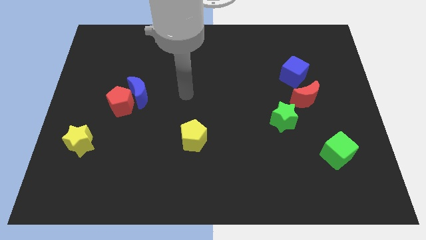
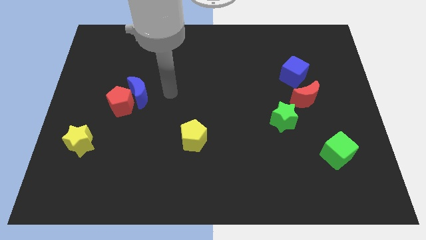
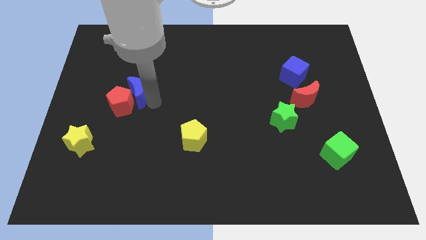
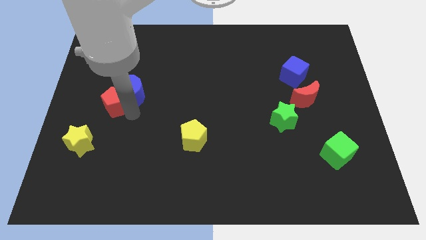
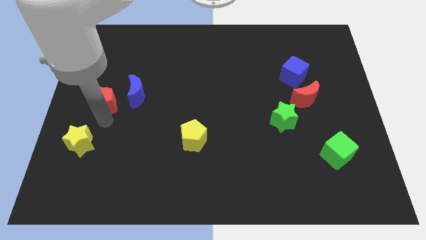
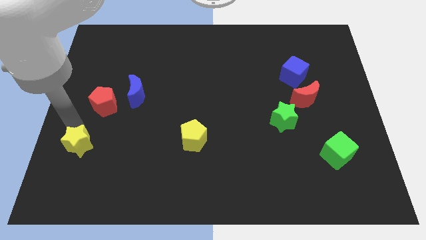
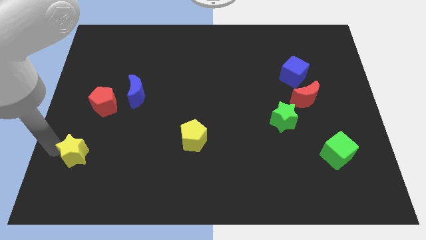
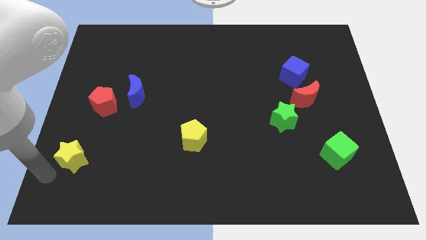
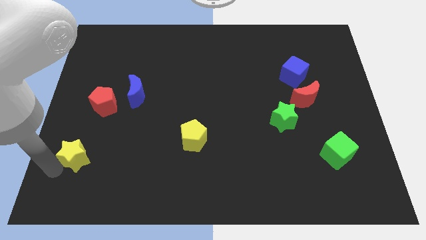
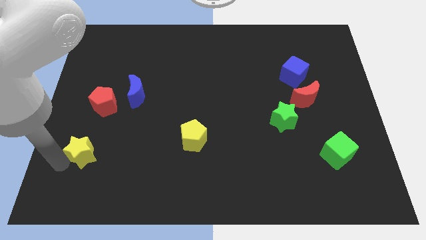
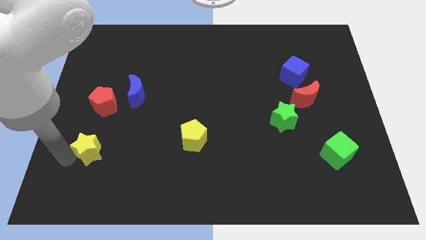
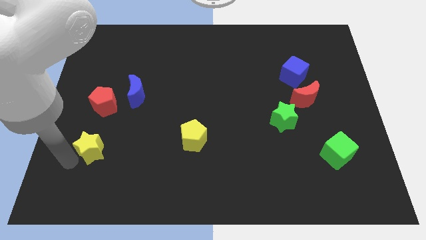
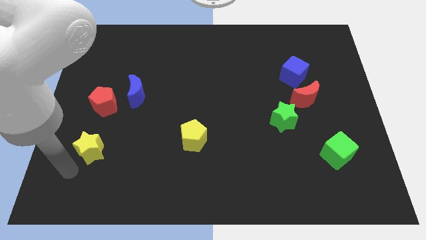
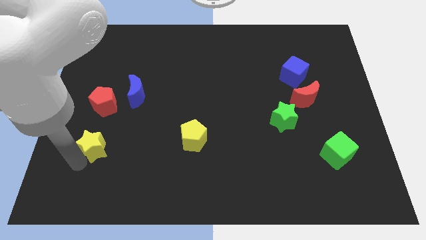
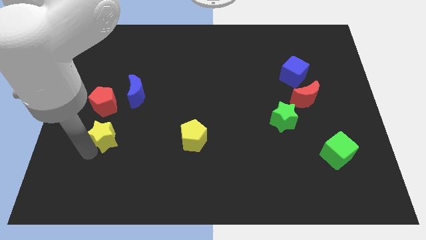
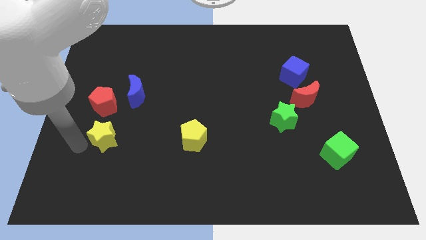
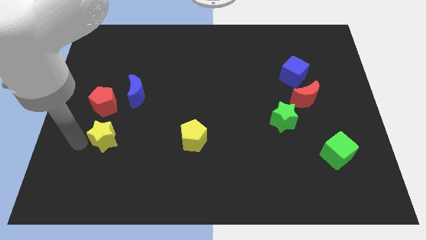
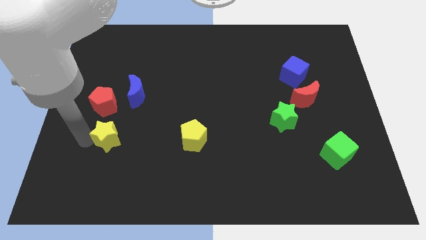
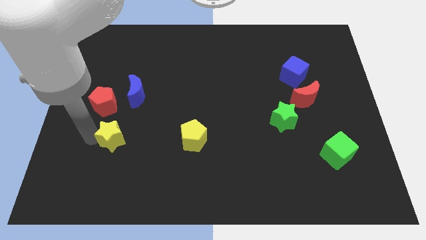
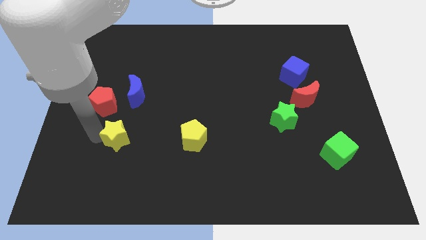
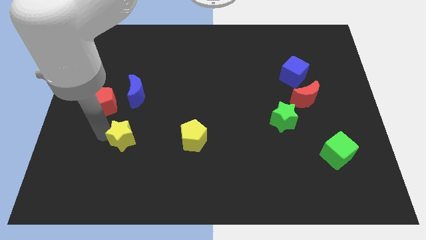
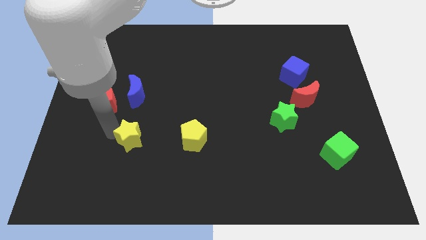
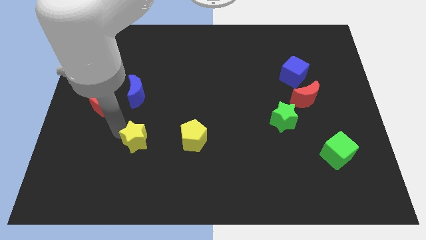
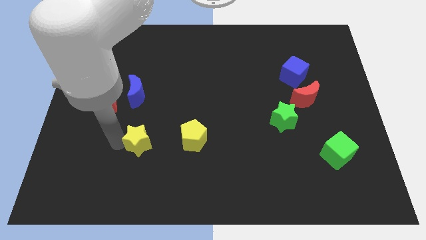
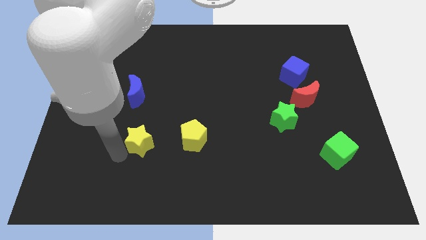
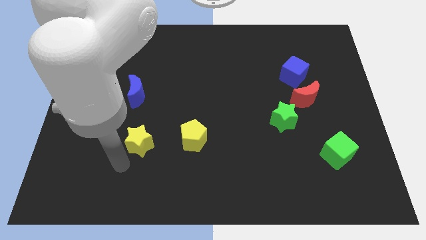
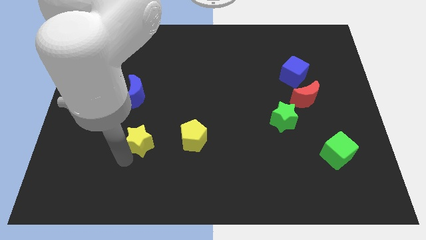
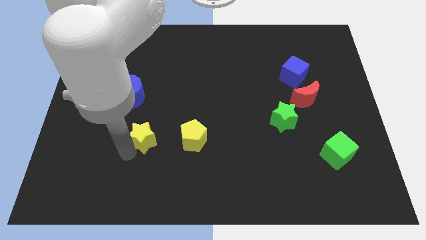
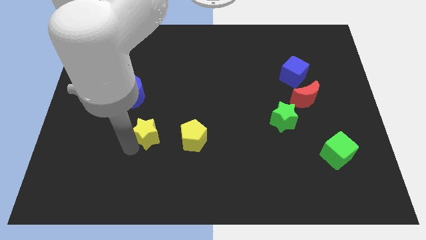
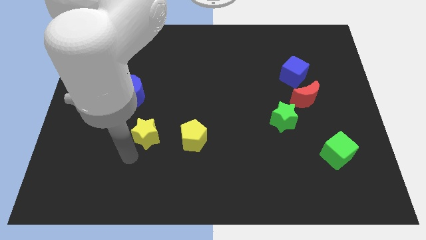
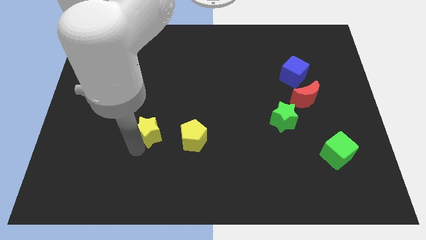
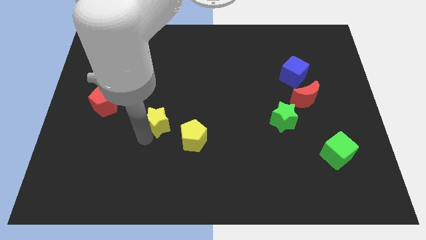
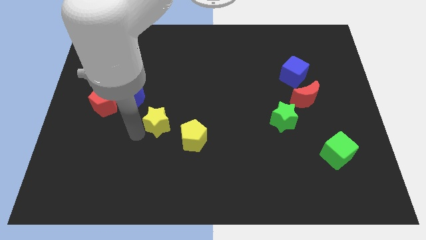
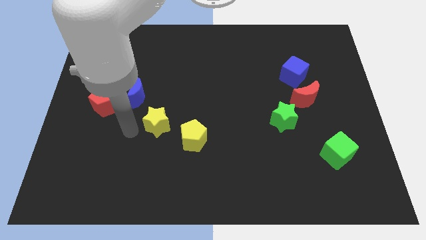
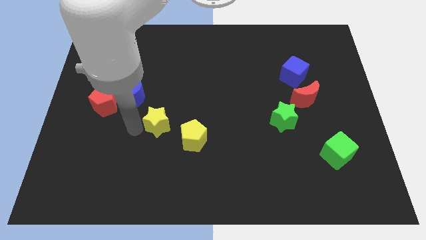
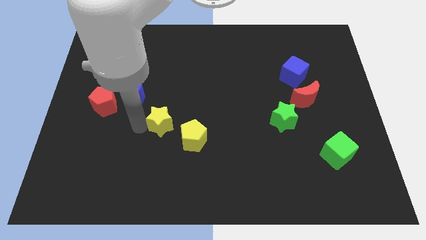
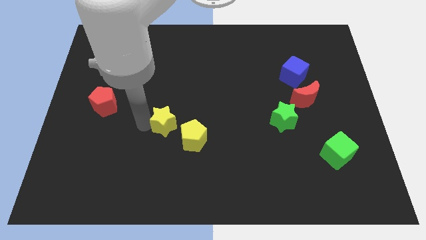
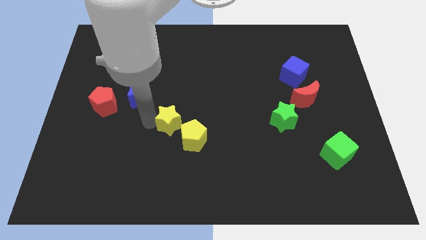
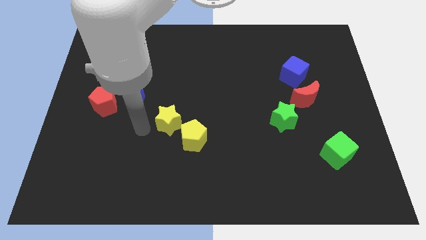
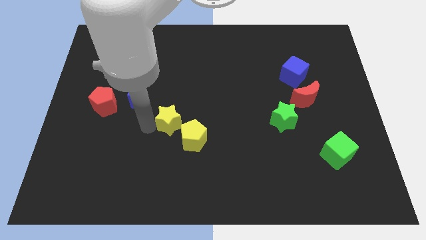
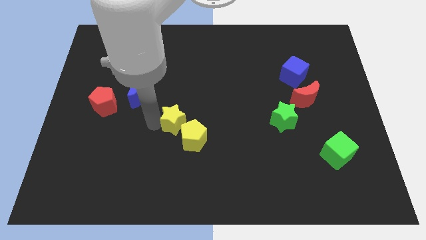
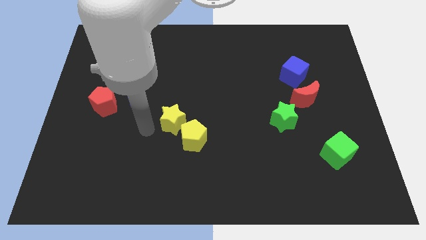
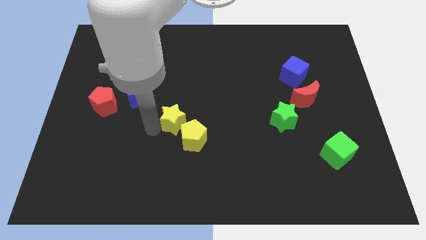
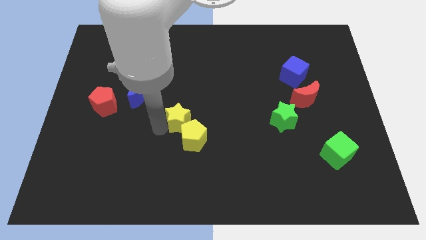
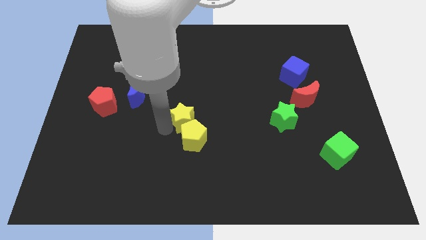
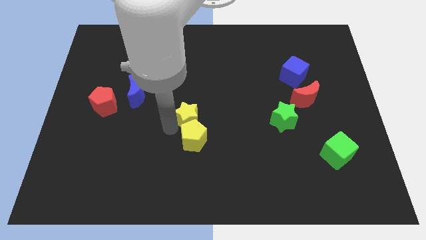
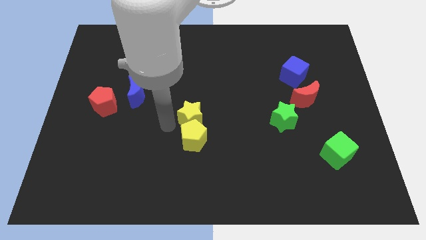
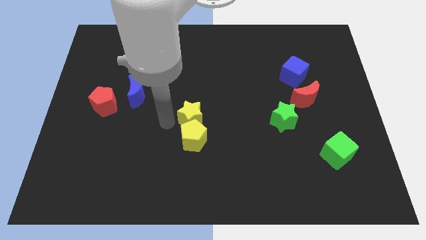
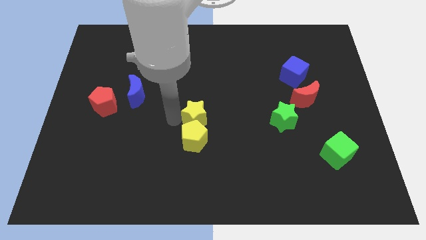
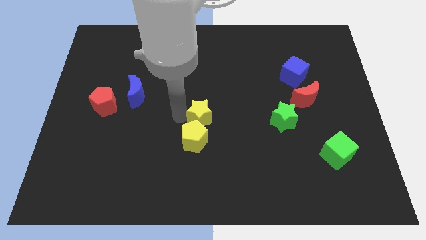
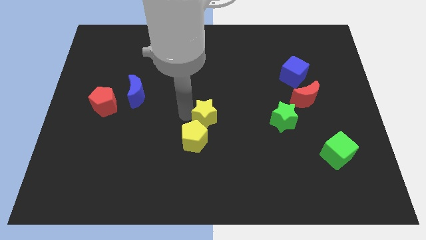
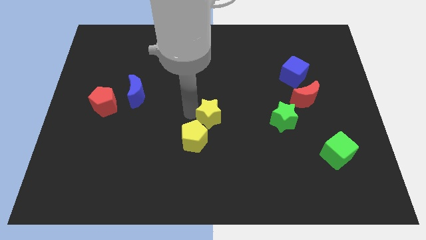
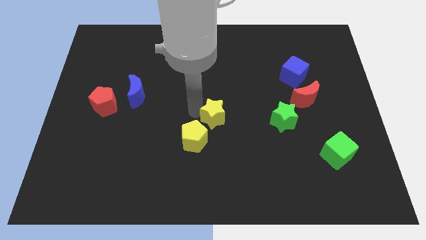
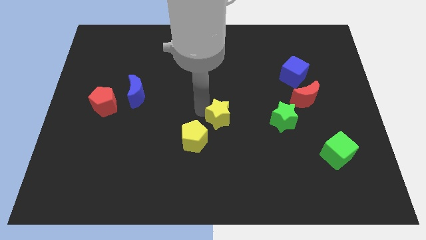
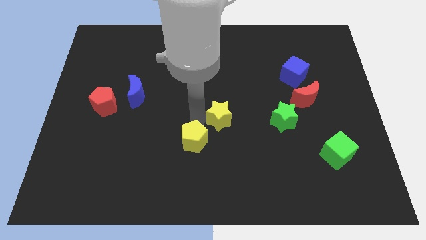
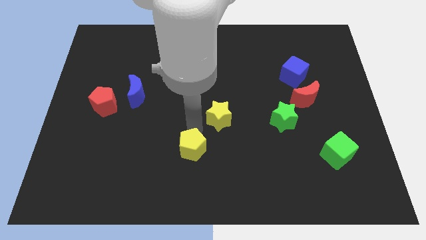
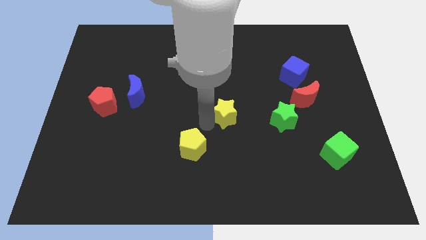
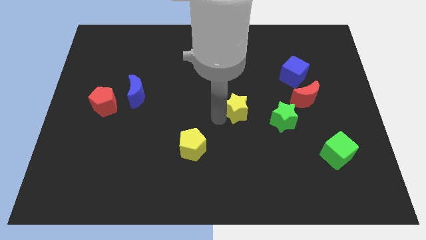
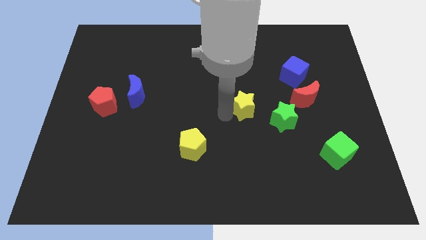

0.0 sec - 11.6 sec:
put the yellow star to the top left side of the green star

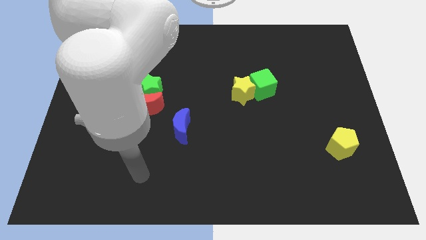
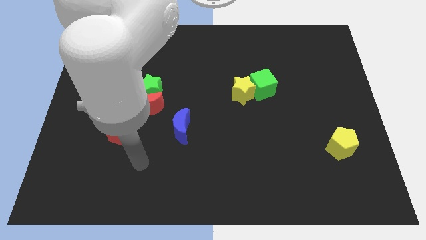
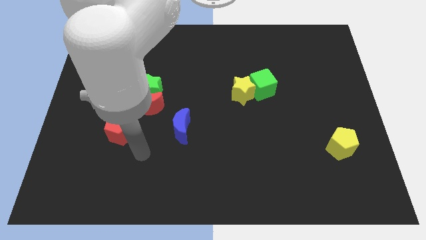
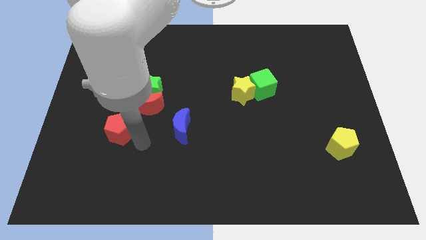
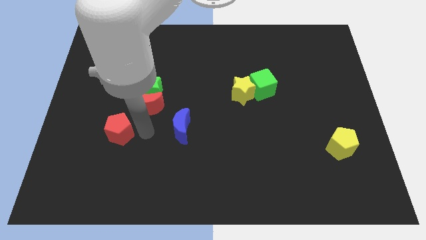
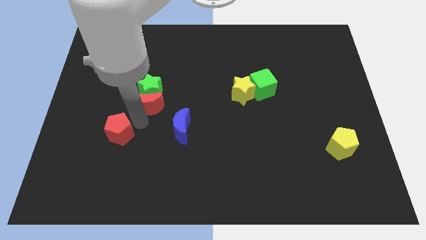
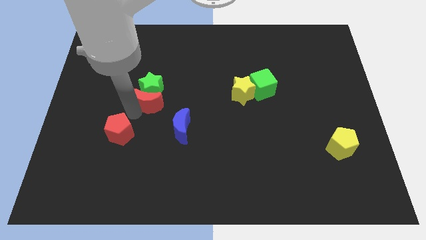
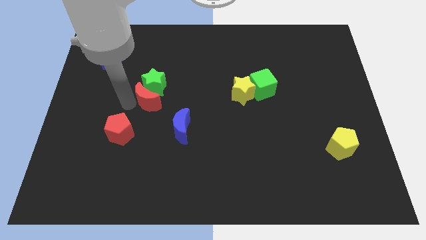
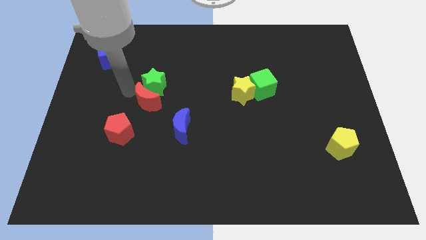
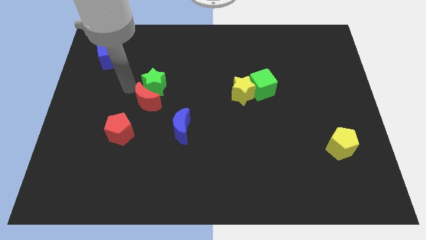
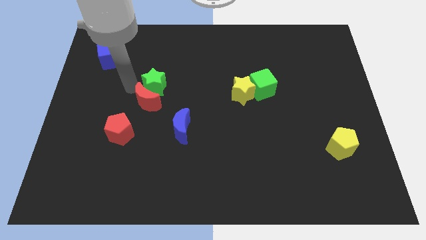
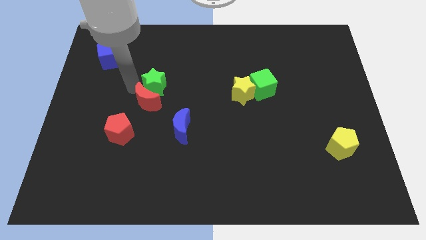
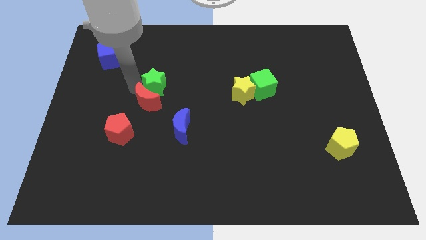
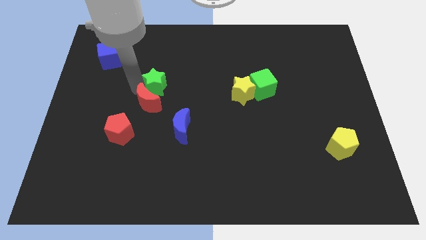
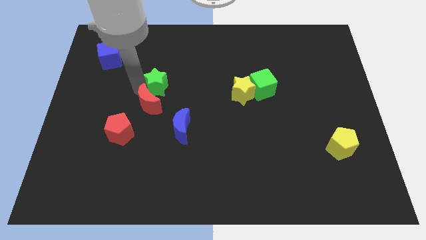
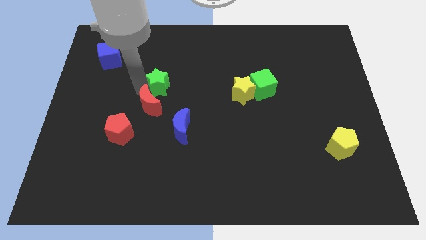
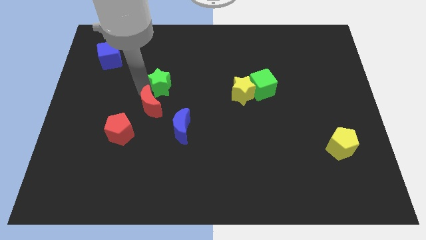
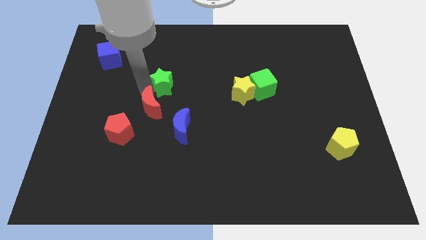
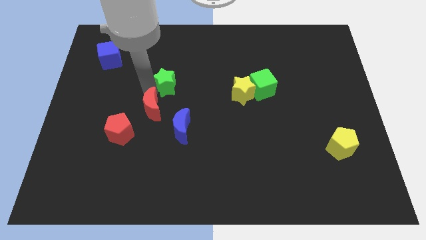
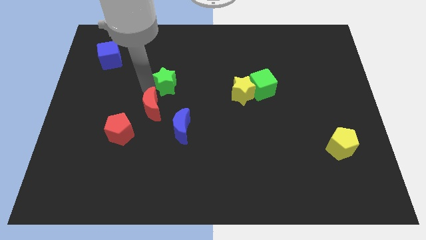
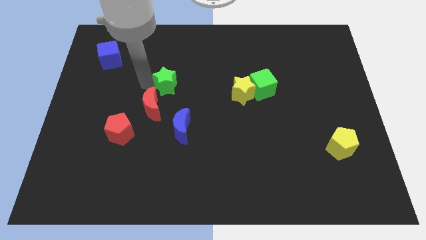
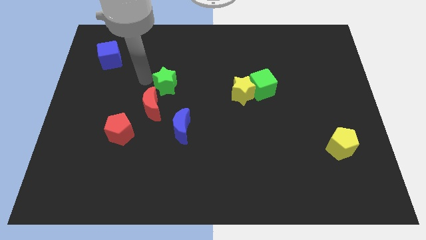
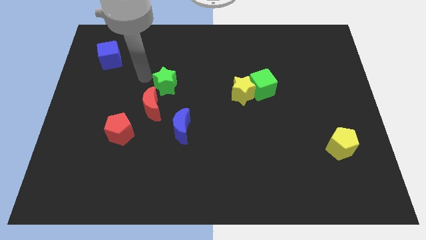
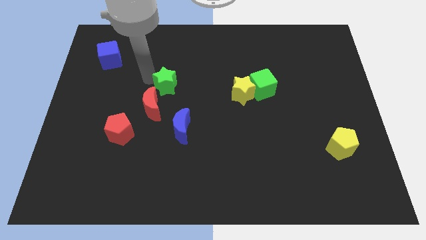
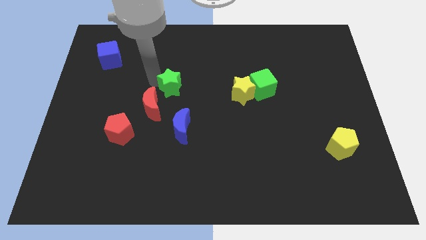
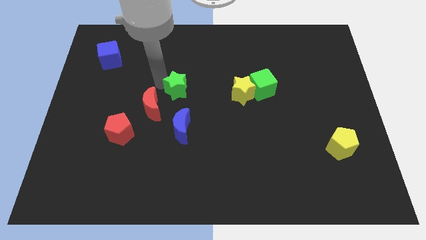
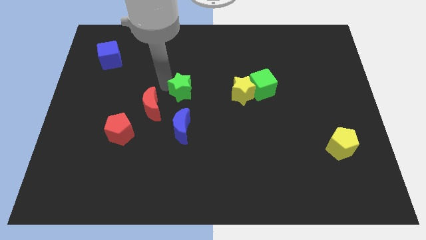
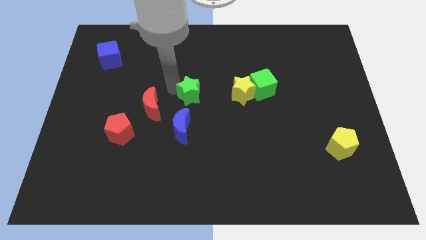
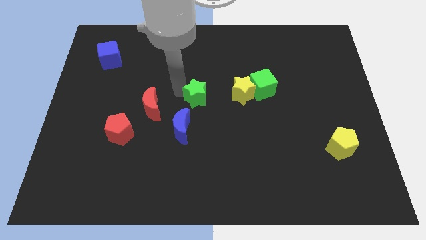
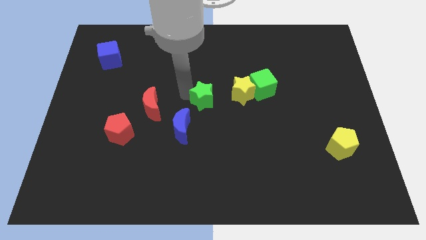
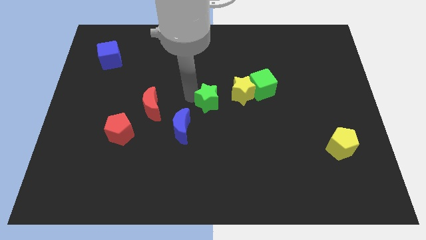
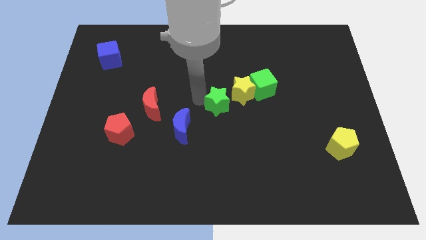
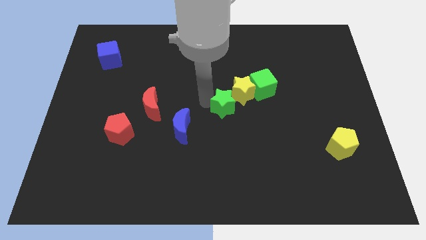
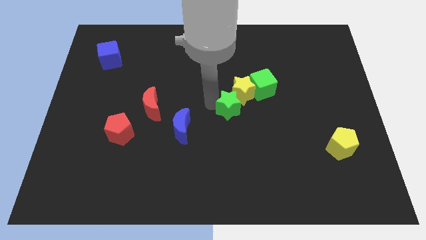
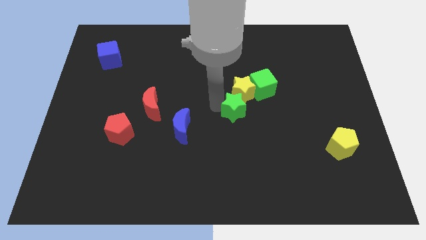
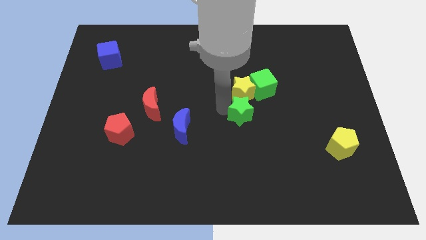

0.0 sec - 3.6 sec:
push the green star to the bottom right of the yellow star
